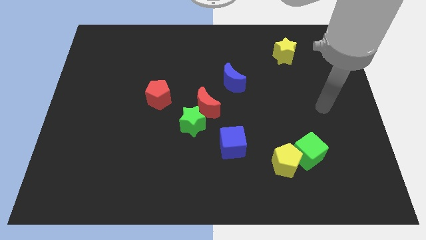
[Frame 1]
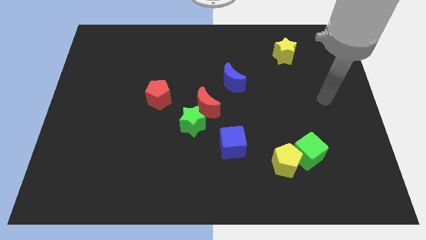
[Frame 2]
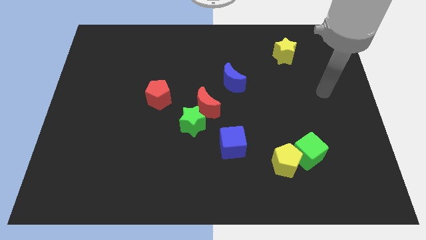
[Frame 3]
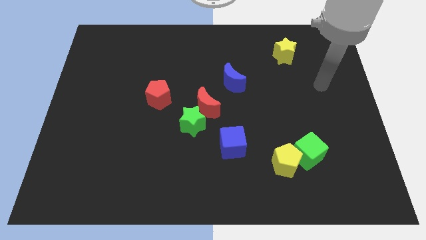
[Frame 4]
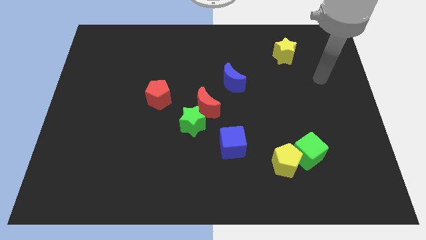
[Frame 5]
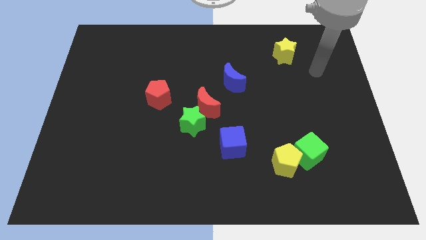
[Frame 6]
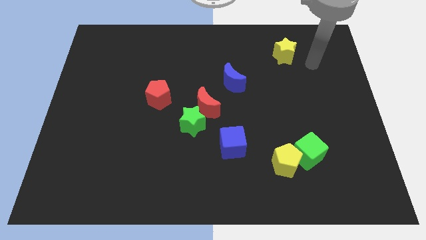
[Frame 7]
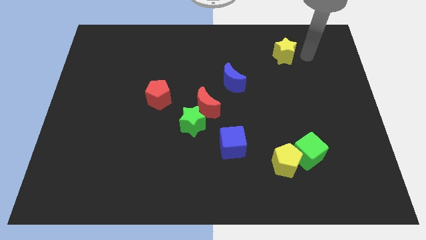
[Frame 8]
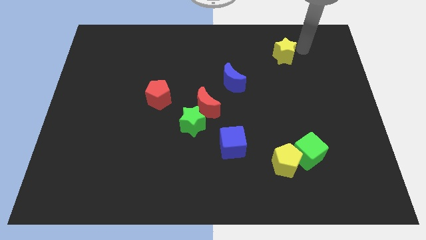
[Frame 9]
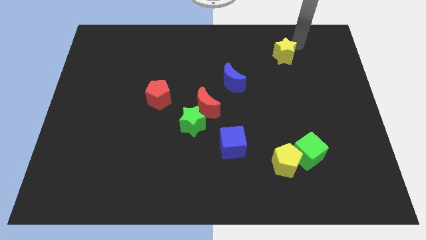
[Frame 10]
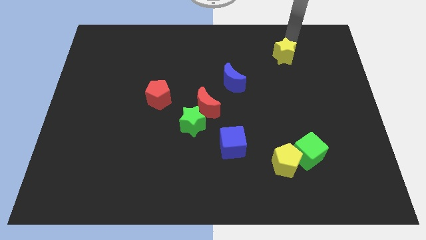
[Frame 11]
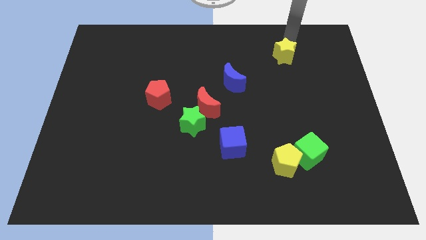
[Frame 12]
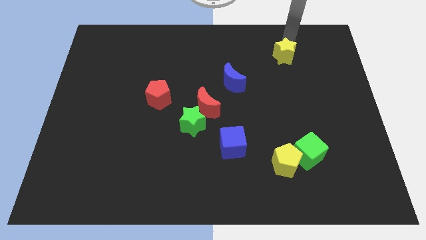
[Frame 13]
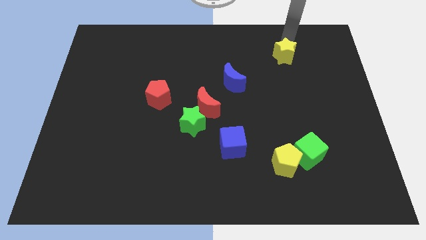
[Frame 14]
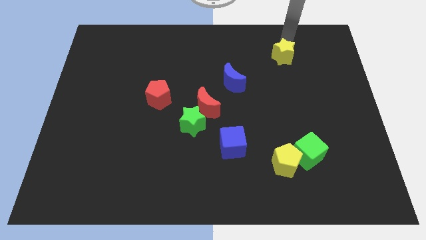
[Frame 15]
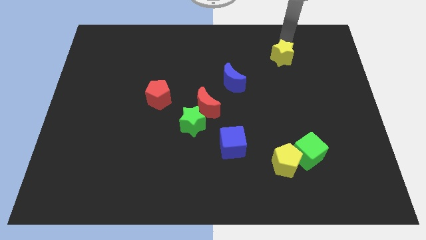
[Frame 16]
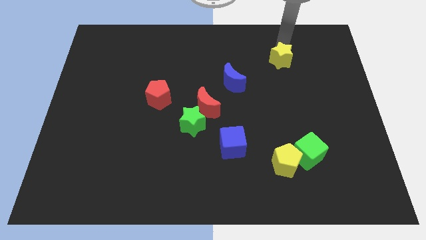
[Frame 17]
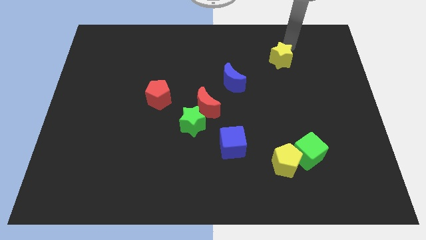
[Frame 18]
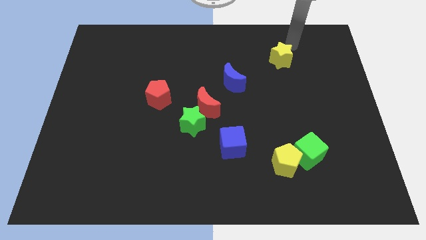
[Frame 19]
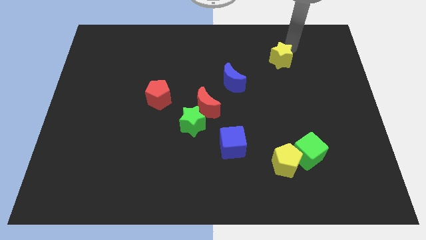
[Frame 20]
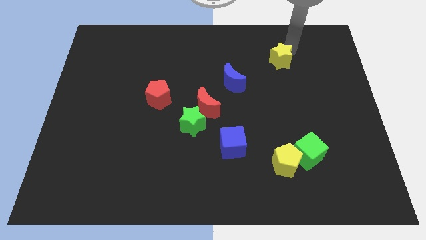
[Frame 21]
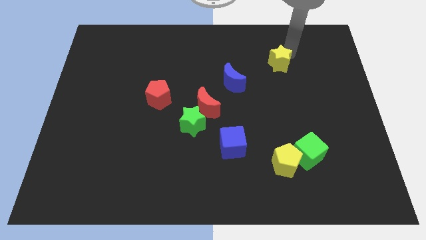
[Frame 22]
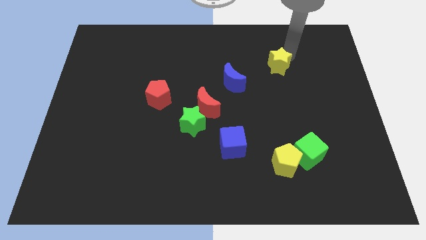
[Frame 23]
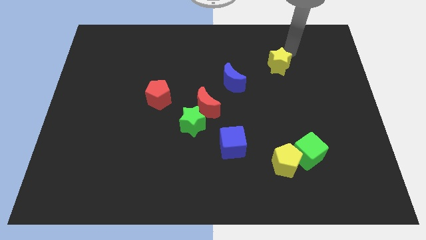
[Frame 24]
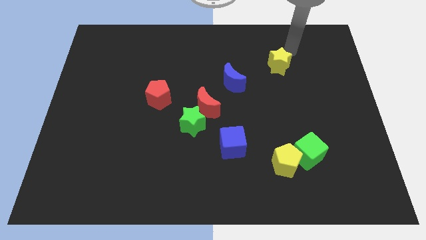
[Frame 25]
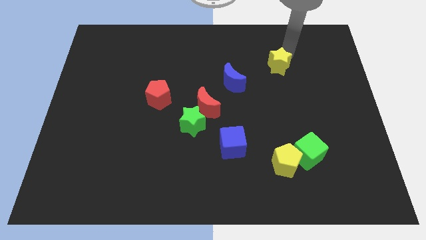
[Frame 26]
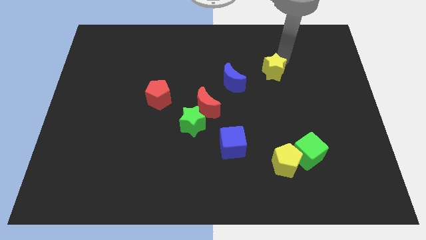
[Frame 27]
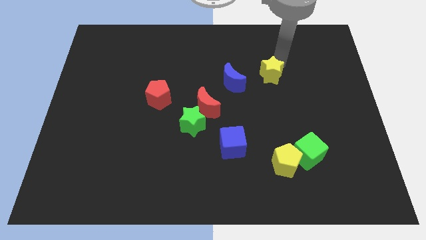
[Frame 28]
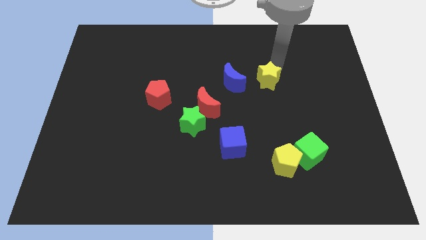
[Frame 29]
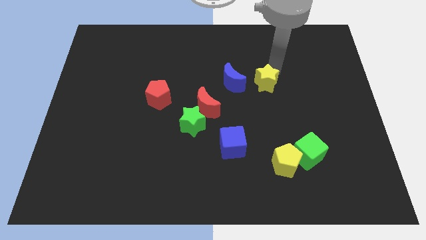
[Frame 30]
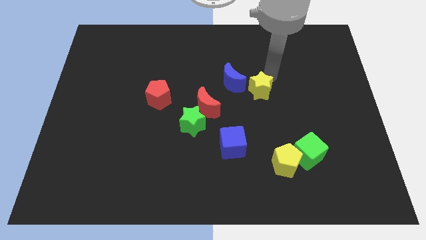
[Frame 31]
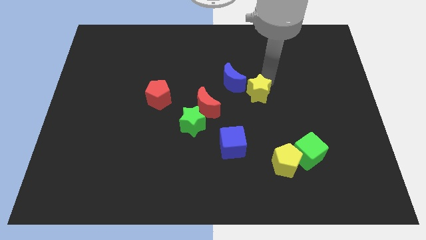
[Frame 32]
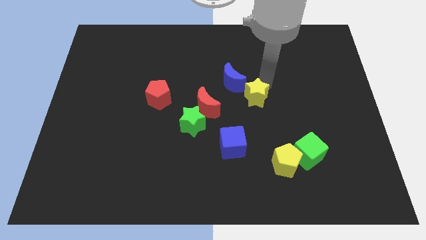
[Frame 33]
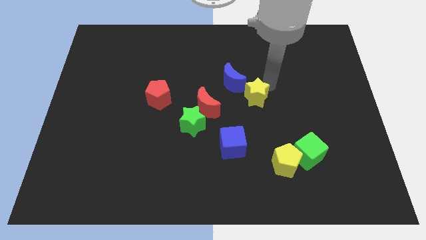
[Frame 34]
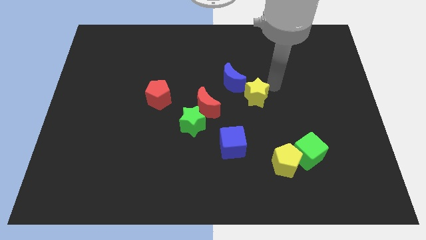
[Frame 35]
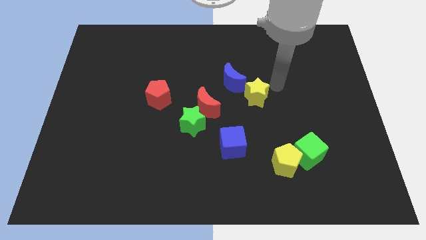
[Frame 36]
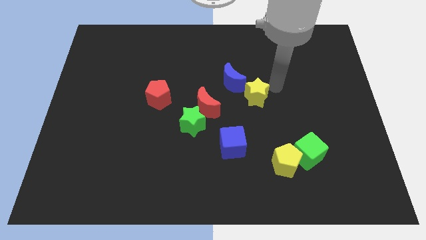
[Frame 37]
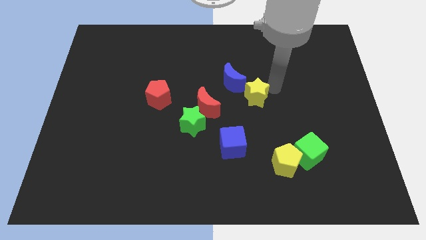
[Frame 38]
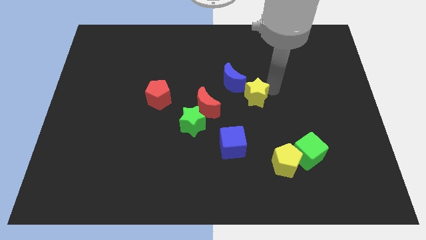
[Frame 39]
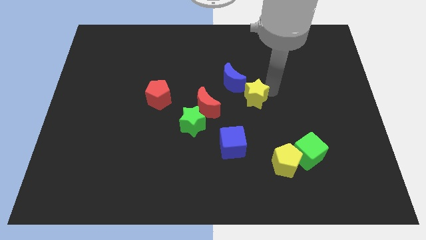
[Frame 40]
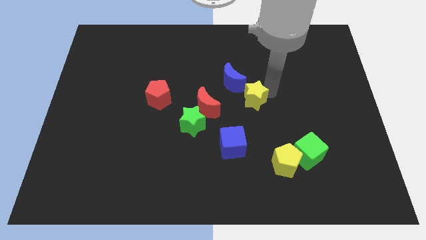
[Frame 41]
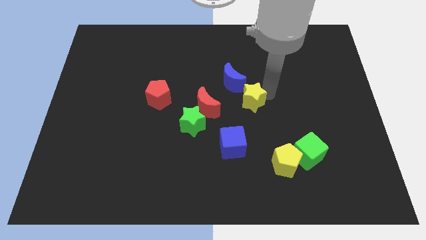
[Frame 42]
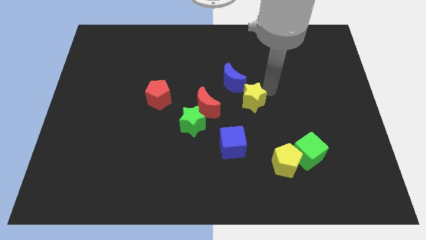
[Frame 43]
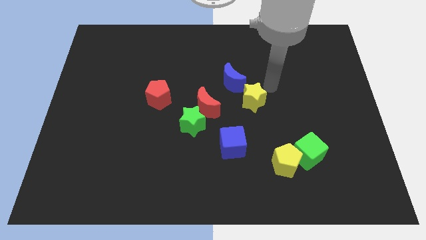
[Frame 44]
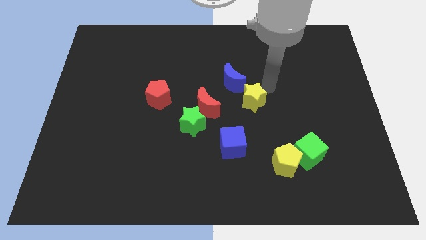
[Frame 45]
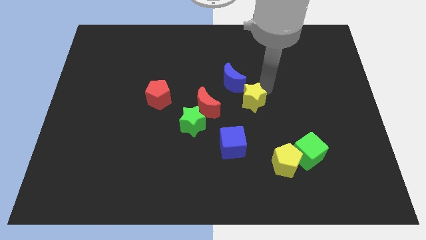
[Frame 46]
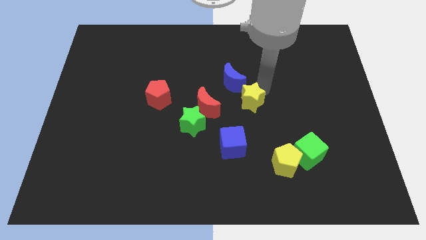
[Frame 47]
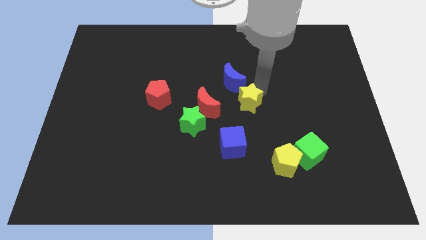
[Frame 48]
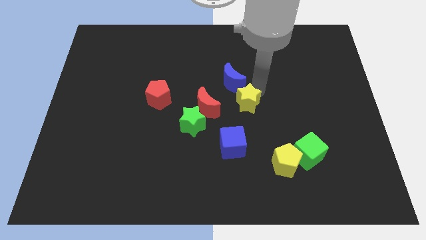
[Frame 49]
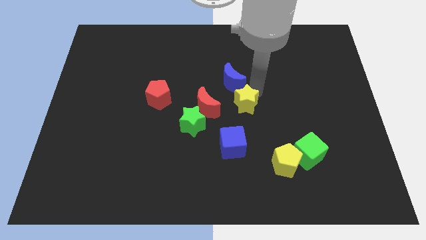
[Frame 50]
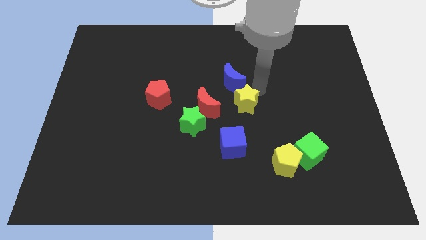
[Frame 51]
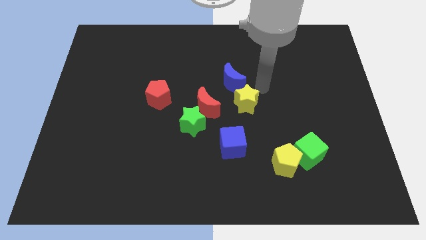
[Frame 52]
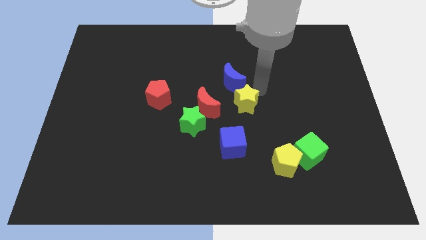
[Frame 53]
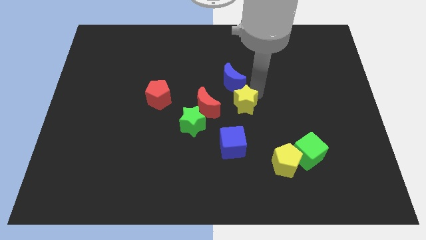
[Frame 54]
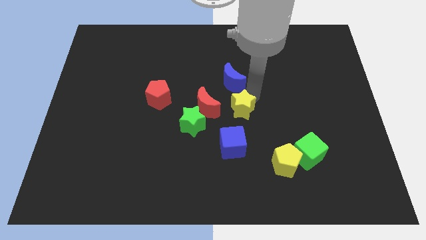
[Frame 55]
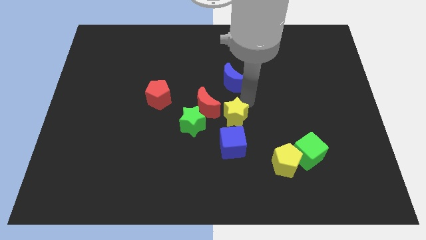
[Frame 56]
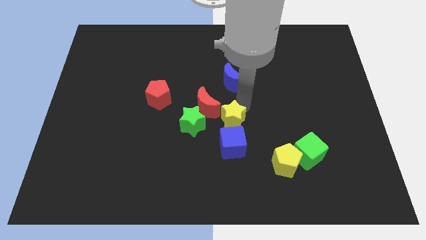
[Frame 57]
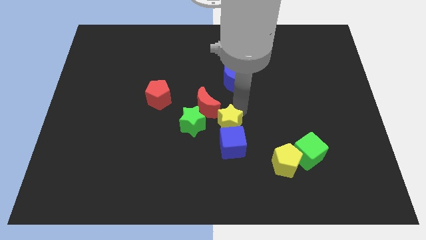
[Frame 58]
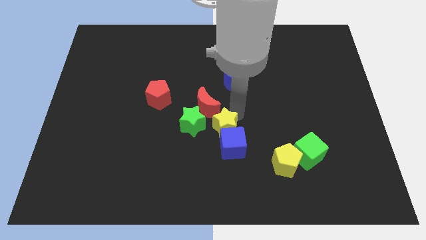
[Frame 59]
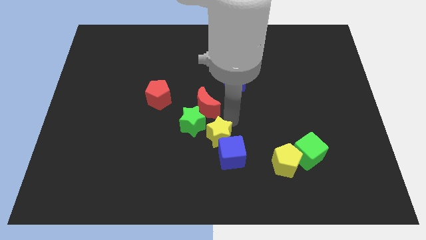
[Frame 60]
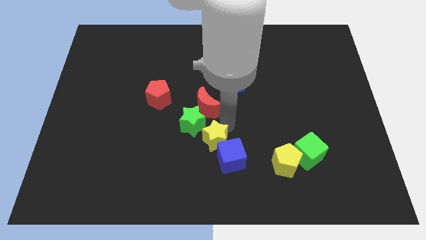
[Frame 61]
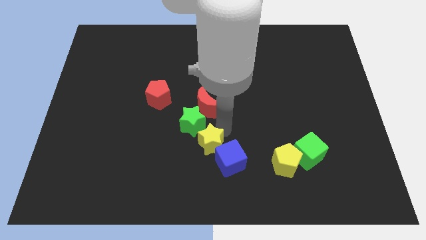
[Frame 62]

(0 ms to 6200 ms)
slide the yellow star to the bottom side of the green star

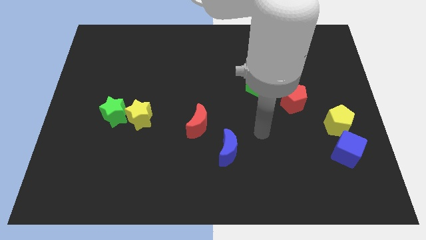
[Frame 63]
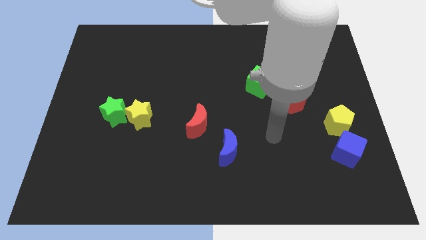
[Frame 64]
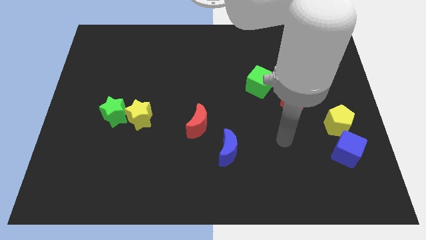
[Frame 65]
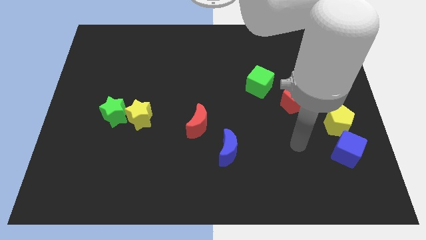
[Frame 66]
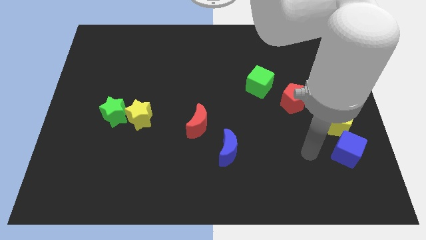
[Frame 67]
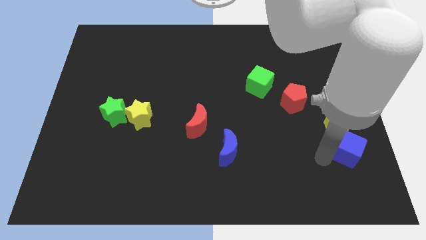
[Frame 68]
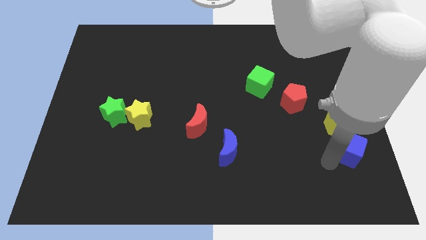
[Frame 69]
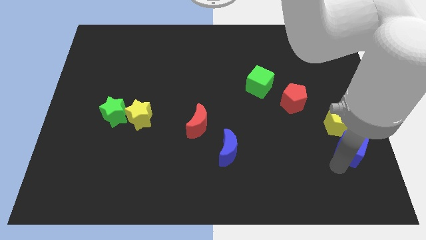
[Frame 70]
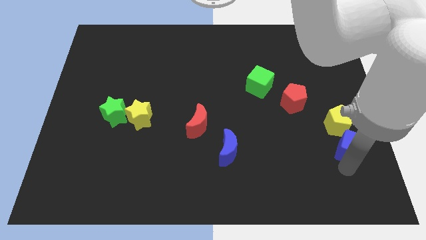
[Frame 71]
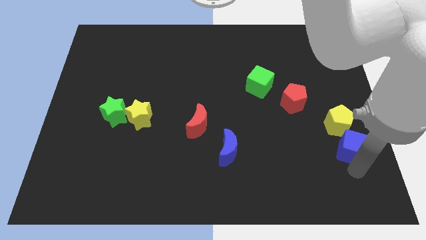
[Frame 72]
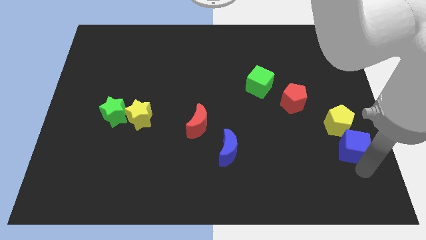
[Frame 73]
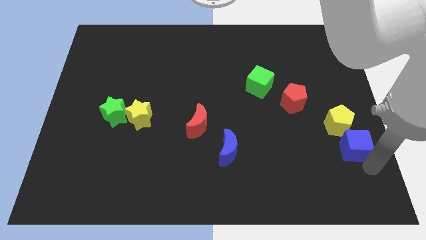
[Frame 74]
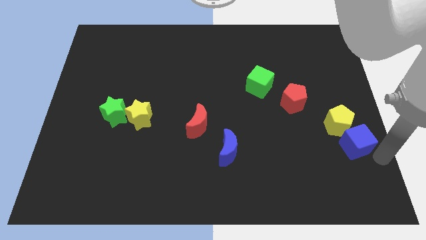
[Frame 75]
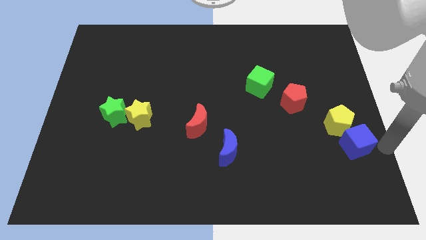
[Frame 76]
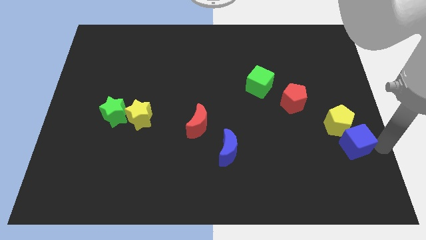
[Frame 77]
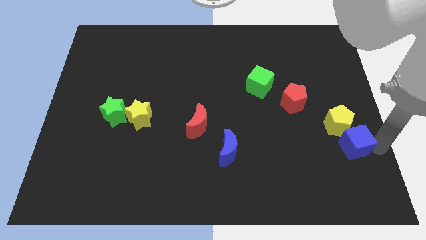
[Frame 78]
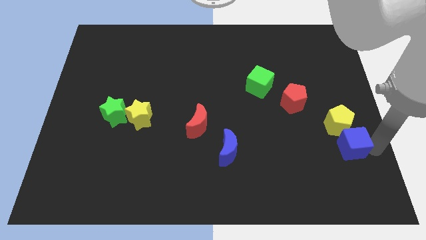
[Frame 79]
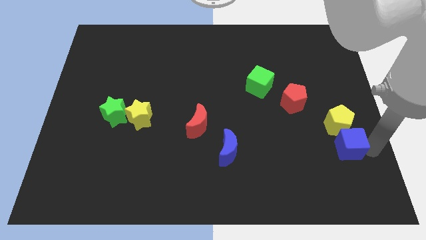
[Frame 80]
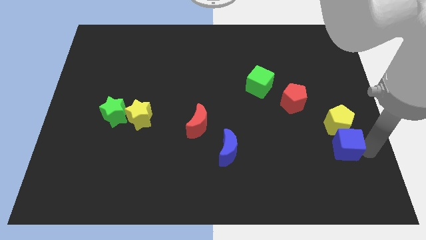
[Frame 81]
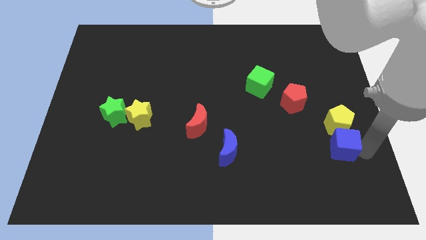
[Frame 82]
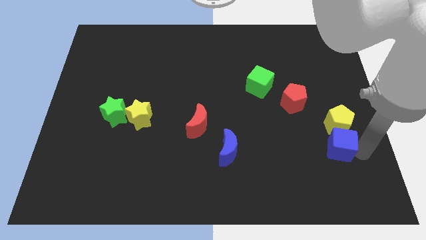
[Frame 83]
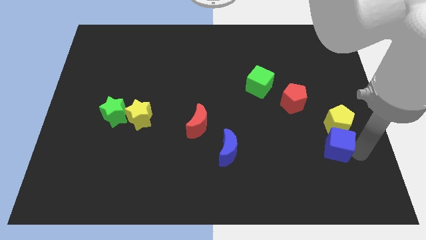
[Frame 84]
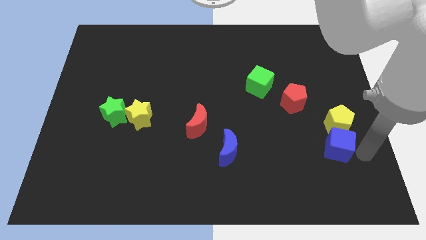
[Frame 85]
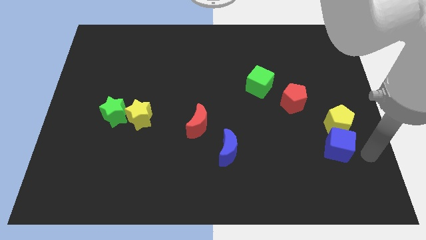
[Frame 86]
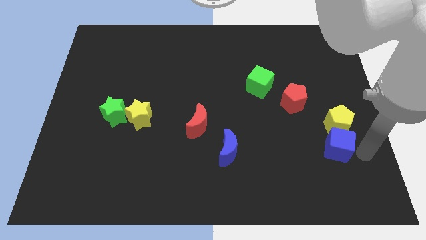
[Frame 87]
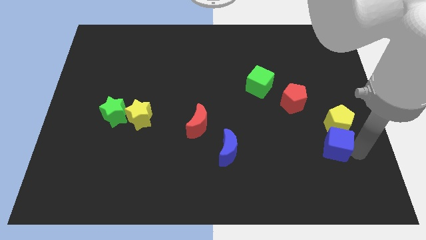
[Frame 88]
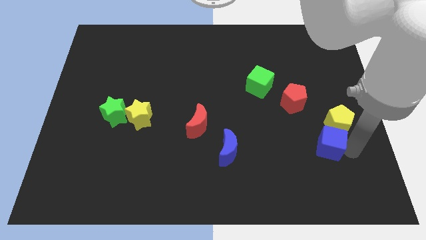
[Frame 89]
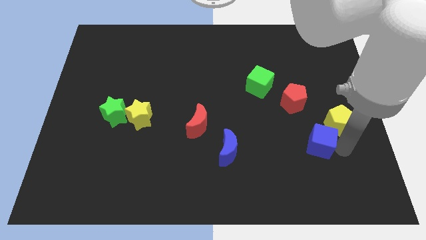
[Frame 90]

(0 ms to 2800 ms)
slide the blue cube to the bottom of the red pentagon
